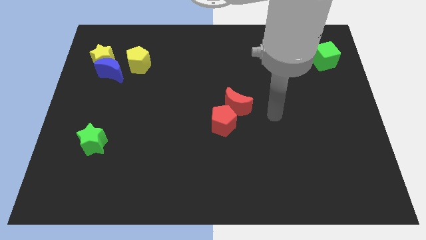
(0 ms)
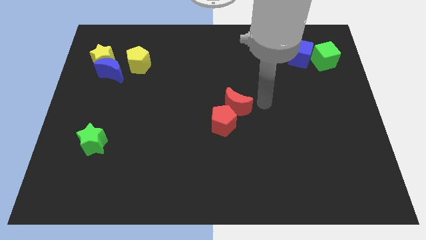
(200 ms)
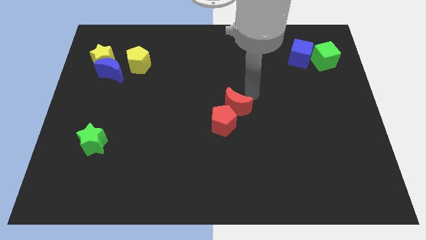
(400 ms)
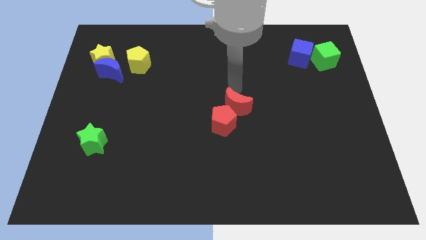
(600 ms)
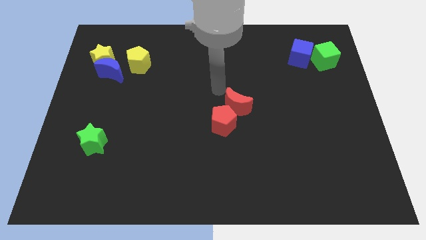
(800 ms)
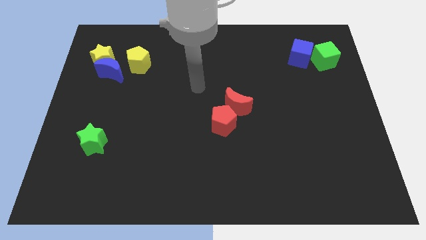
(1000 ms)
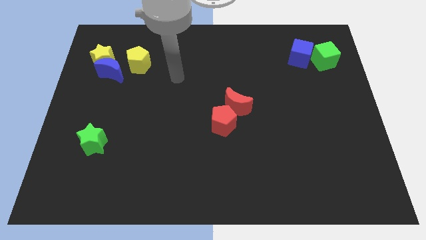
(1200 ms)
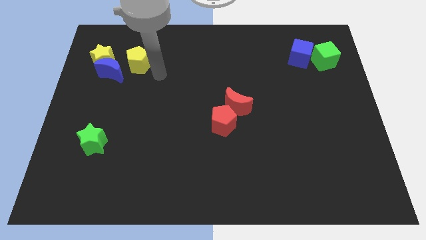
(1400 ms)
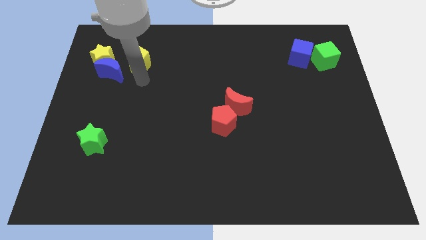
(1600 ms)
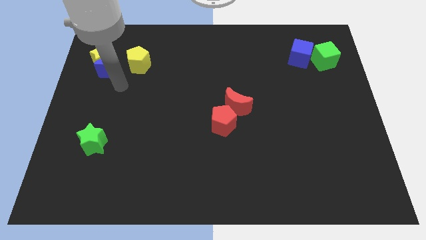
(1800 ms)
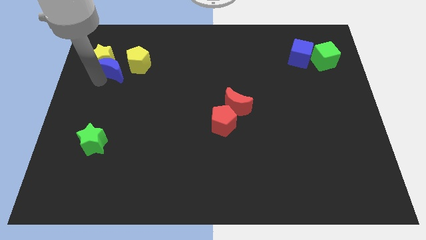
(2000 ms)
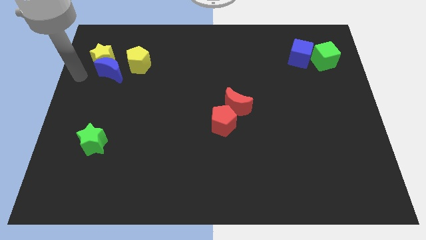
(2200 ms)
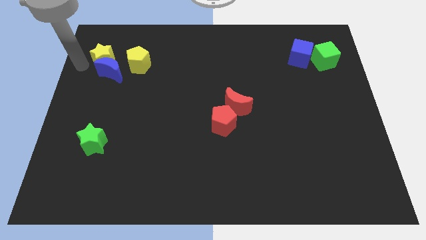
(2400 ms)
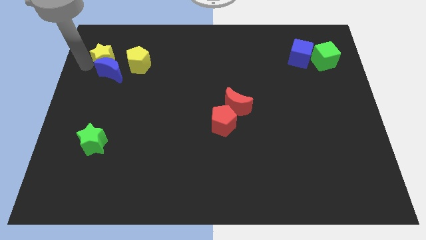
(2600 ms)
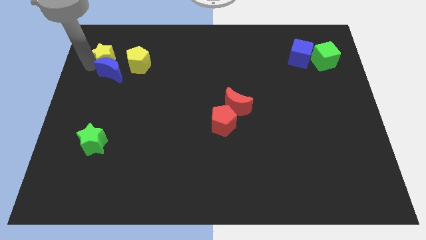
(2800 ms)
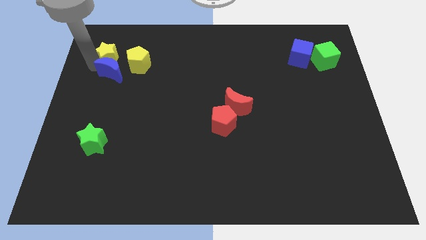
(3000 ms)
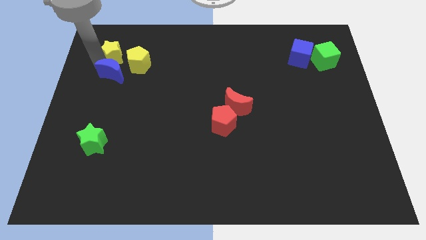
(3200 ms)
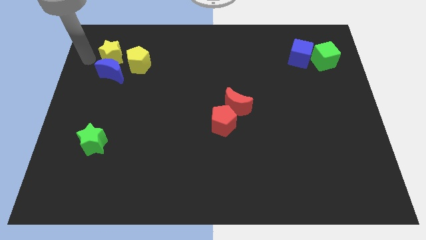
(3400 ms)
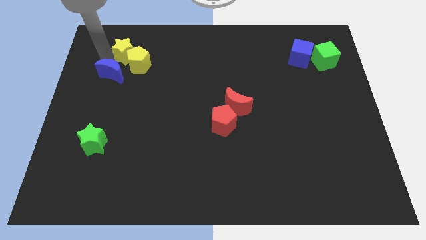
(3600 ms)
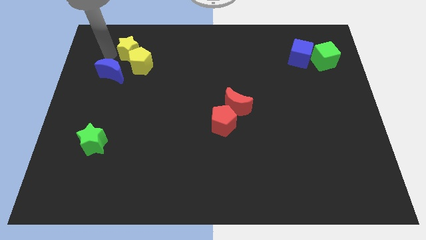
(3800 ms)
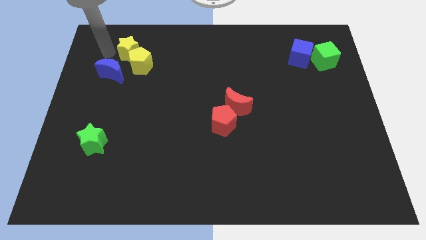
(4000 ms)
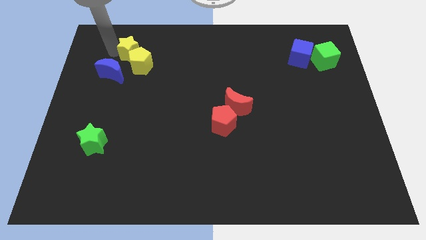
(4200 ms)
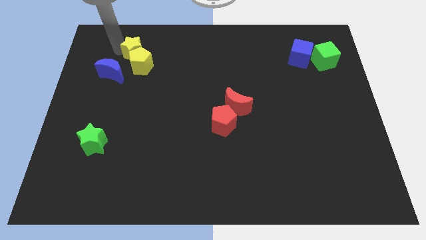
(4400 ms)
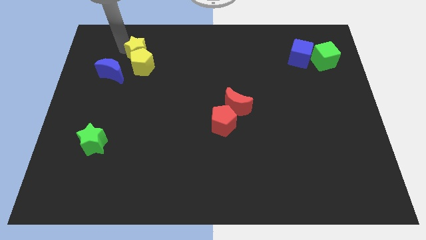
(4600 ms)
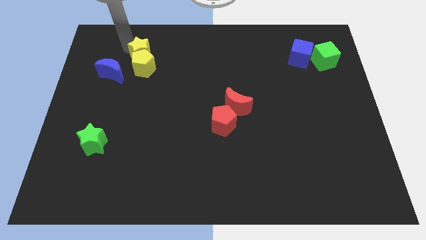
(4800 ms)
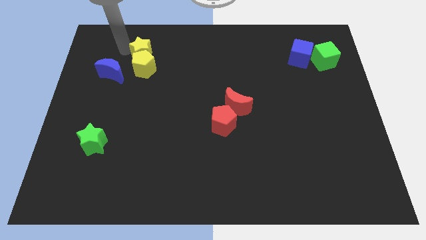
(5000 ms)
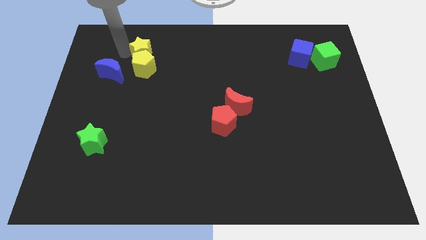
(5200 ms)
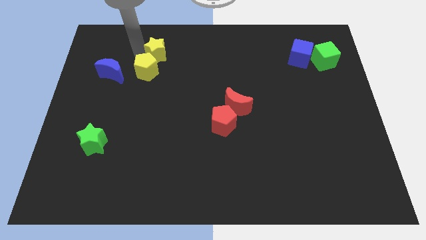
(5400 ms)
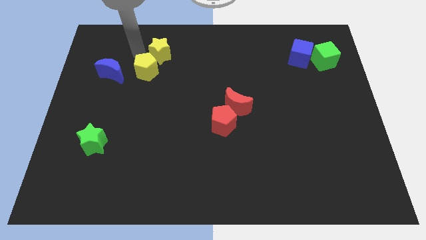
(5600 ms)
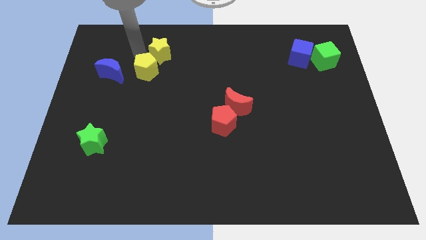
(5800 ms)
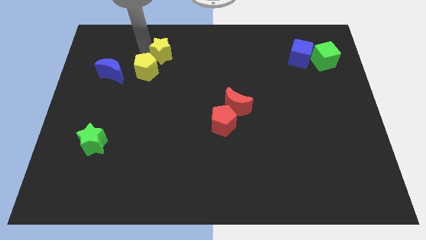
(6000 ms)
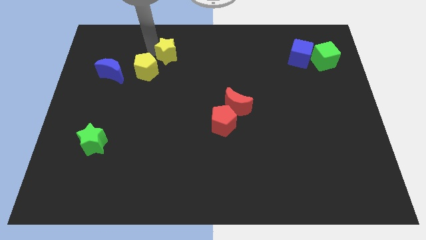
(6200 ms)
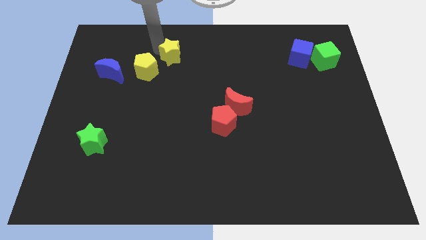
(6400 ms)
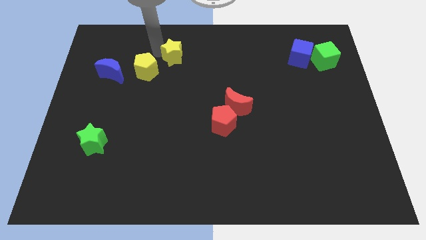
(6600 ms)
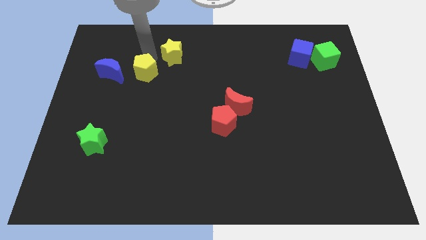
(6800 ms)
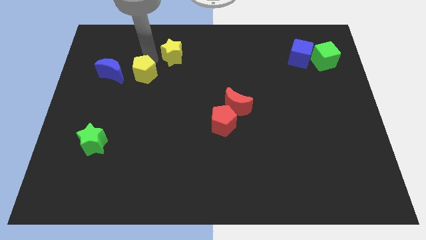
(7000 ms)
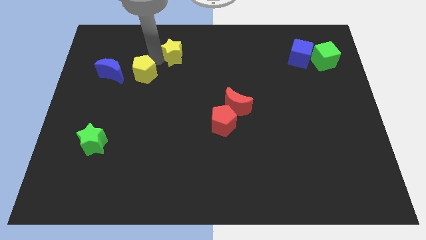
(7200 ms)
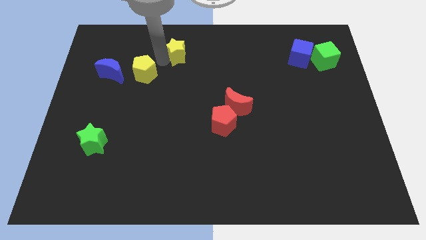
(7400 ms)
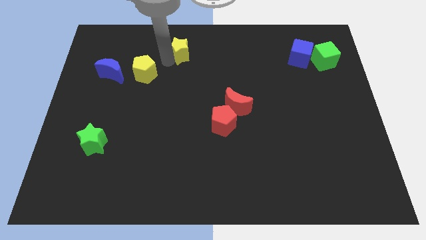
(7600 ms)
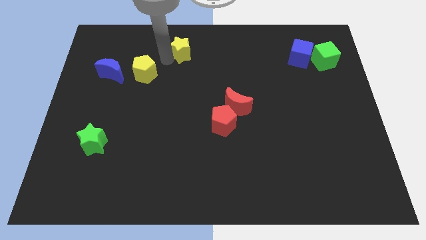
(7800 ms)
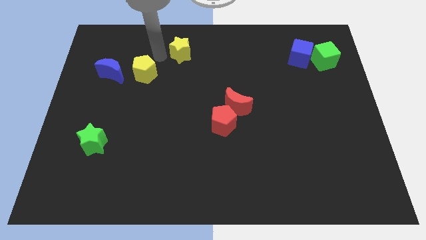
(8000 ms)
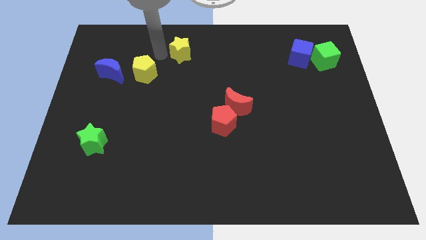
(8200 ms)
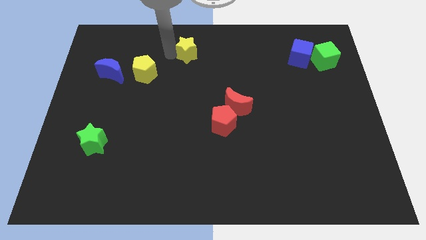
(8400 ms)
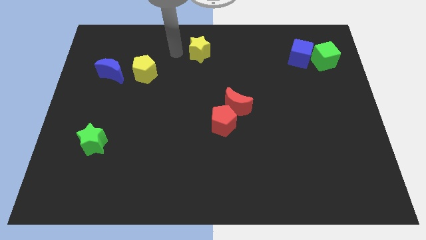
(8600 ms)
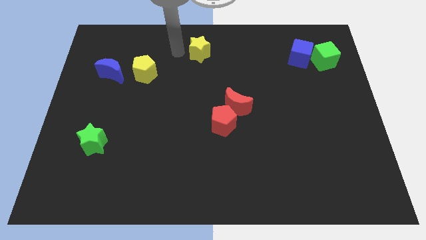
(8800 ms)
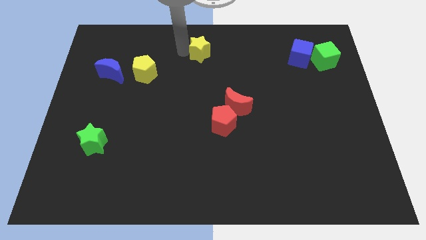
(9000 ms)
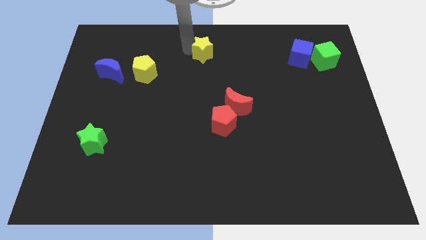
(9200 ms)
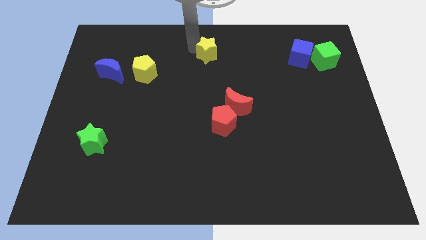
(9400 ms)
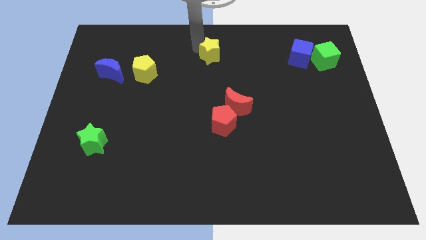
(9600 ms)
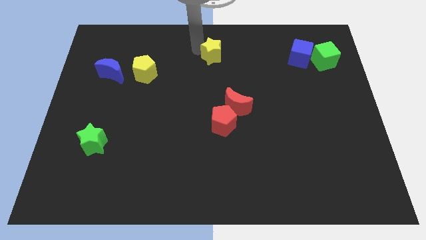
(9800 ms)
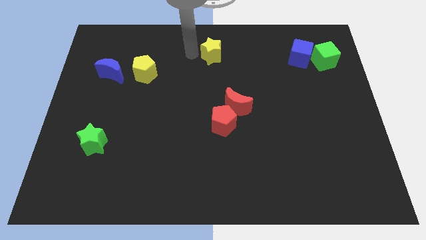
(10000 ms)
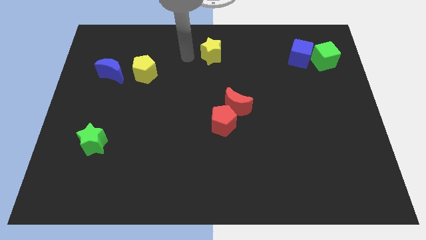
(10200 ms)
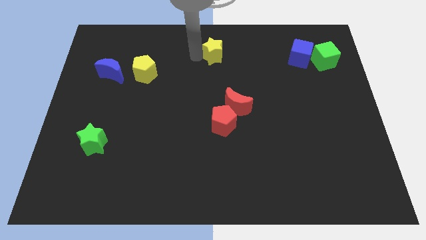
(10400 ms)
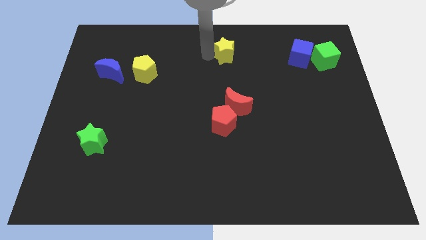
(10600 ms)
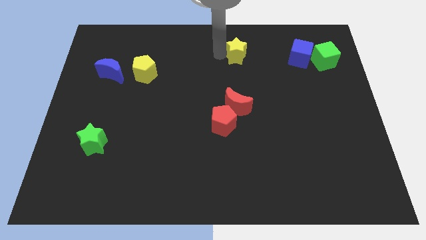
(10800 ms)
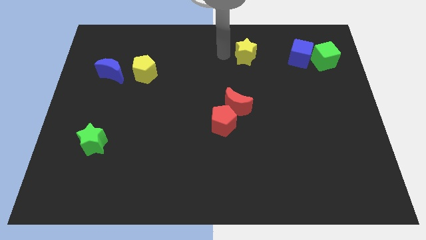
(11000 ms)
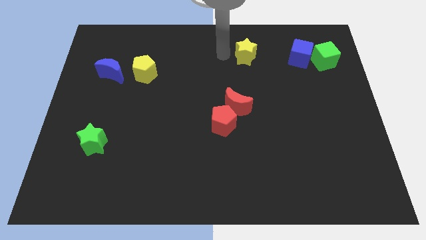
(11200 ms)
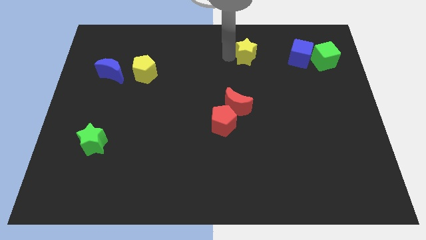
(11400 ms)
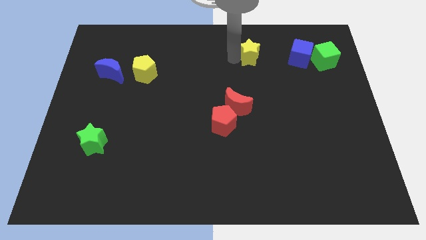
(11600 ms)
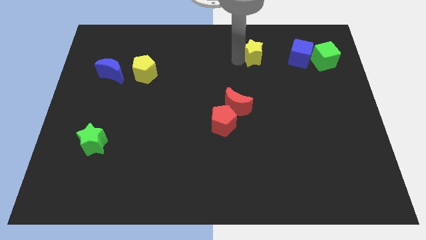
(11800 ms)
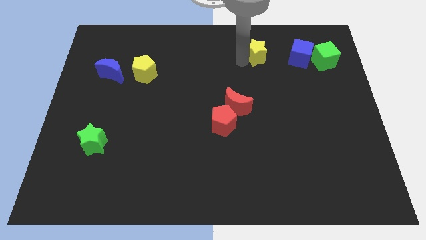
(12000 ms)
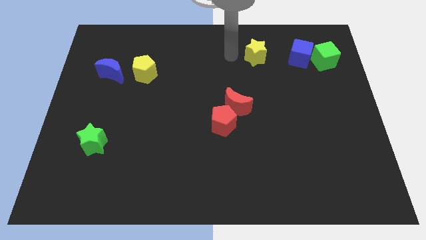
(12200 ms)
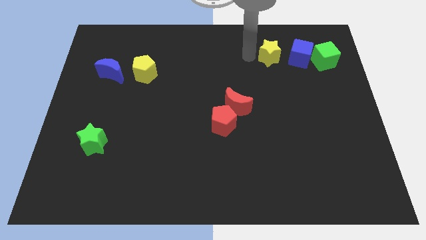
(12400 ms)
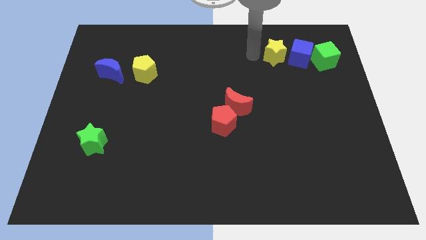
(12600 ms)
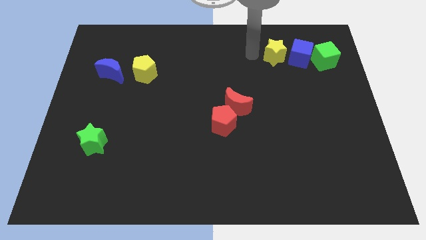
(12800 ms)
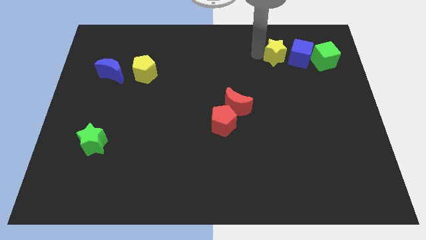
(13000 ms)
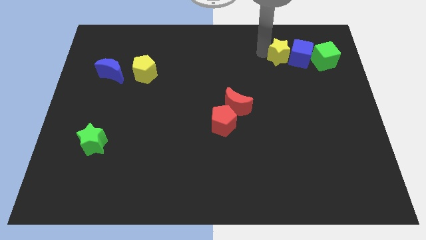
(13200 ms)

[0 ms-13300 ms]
put the yellow star next to the blue cube
